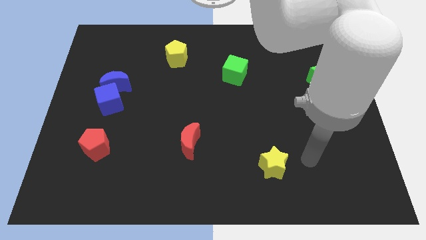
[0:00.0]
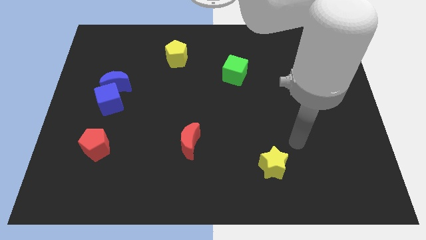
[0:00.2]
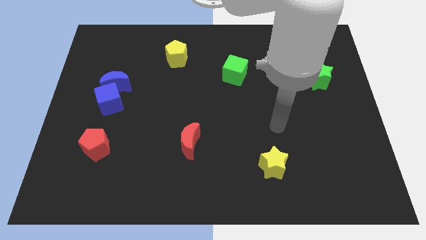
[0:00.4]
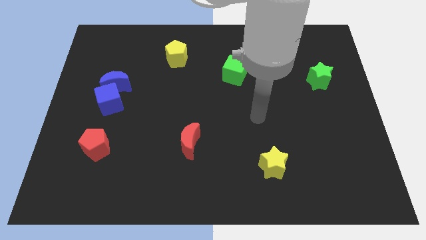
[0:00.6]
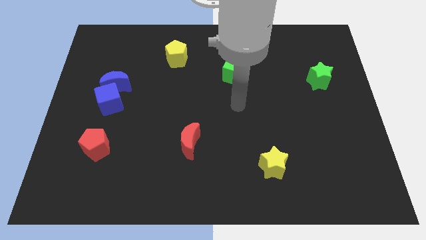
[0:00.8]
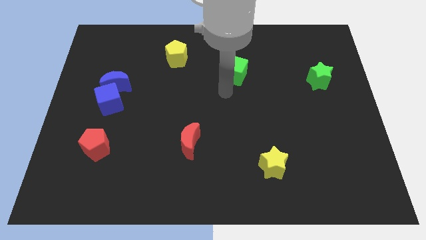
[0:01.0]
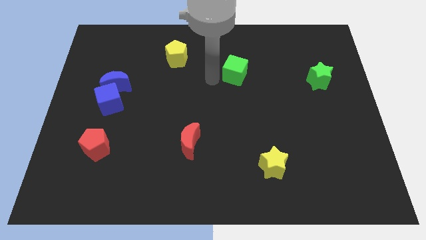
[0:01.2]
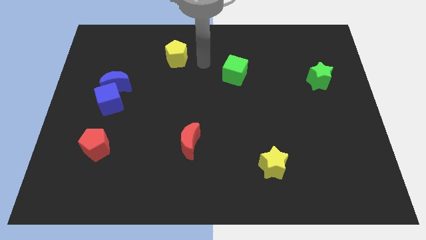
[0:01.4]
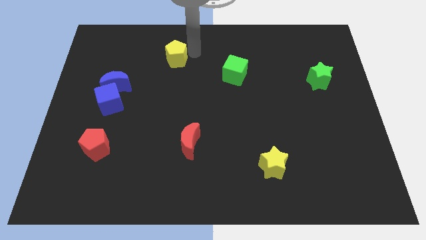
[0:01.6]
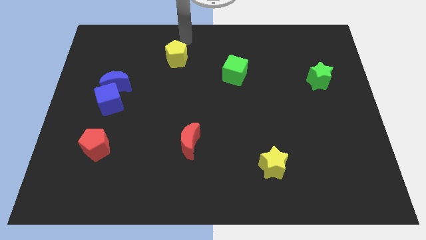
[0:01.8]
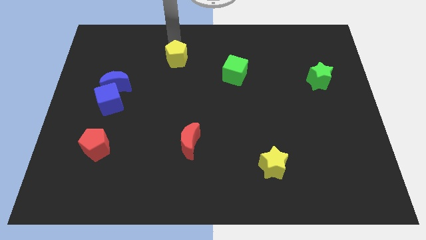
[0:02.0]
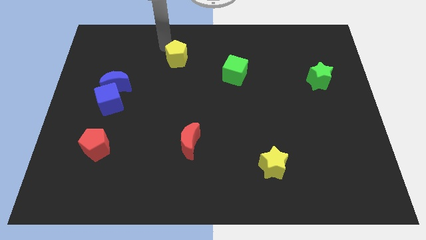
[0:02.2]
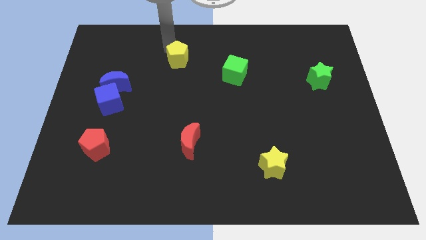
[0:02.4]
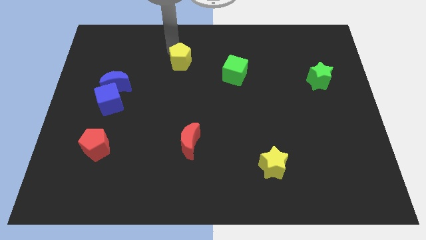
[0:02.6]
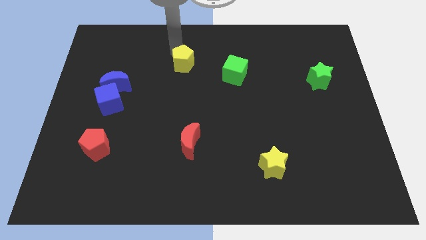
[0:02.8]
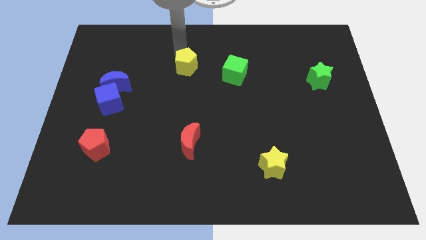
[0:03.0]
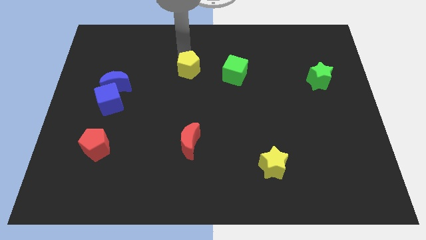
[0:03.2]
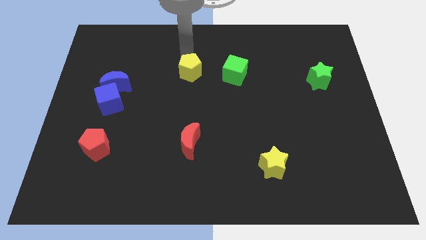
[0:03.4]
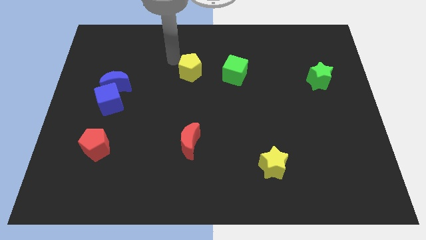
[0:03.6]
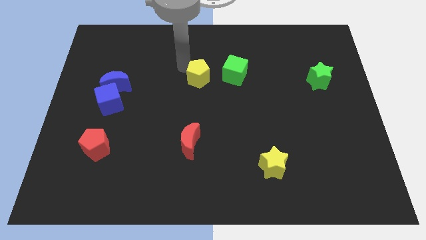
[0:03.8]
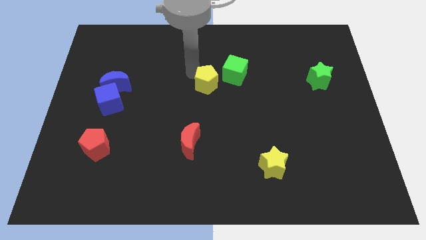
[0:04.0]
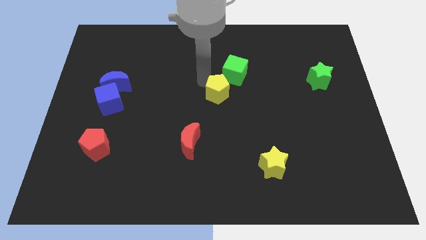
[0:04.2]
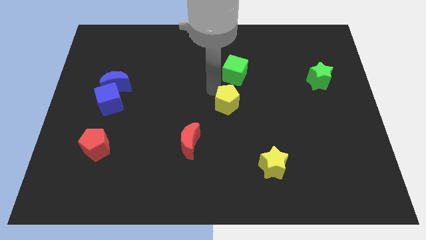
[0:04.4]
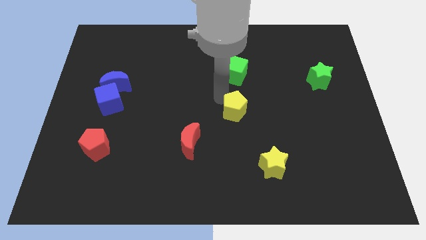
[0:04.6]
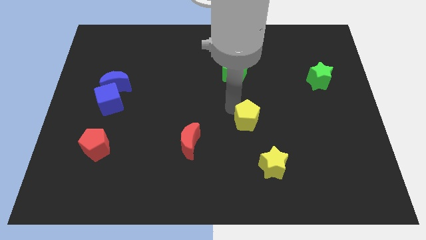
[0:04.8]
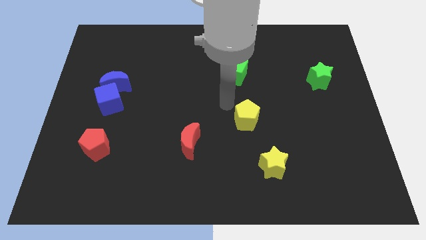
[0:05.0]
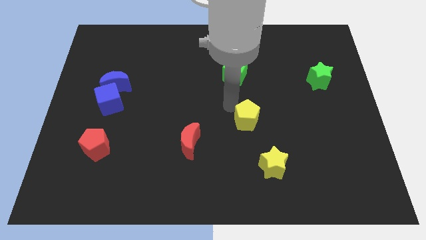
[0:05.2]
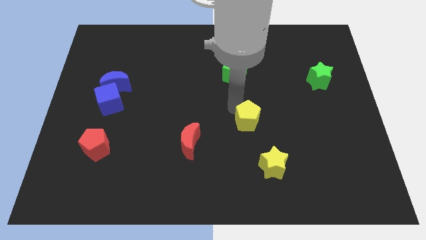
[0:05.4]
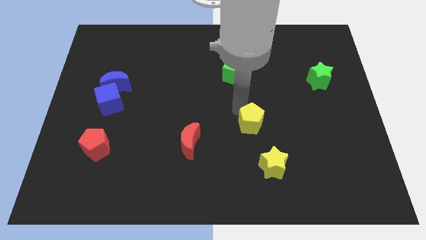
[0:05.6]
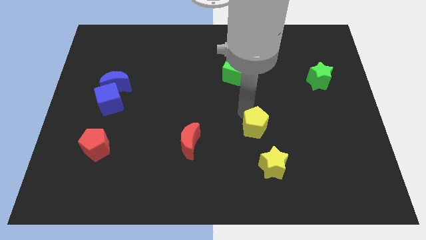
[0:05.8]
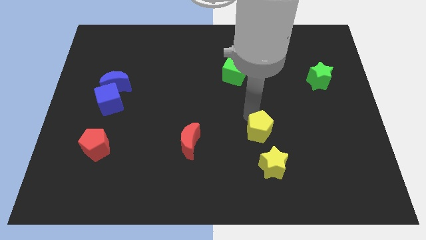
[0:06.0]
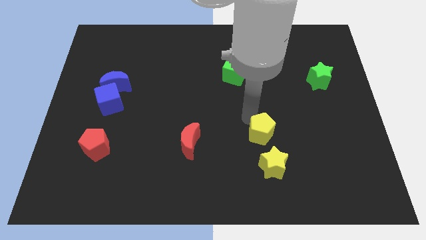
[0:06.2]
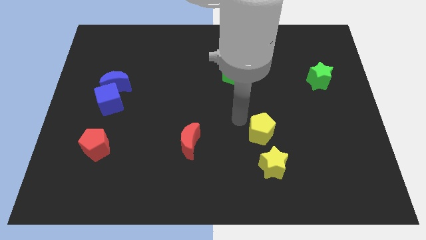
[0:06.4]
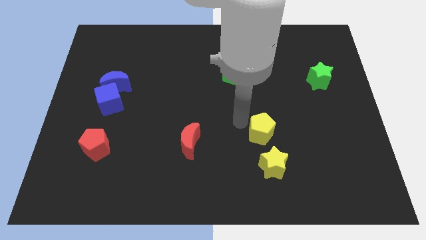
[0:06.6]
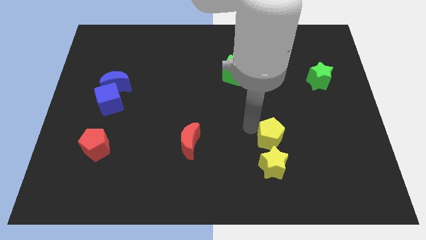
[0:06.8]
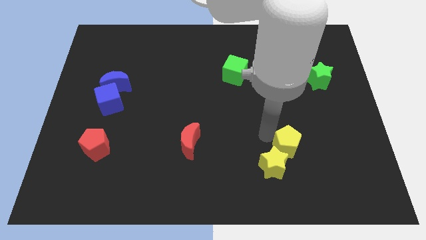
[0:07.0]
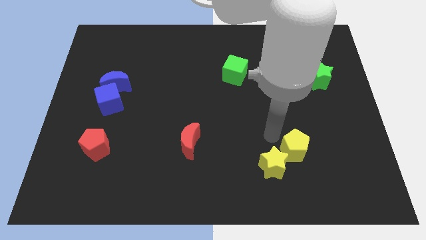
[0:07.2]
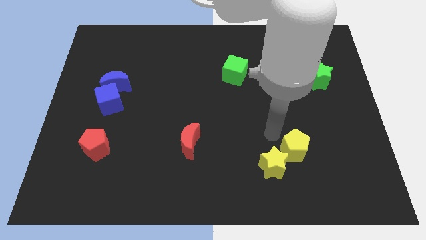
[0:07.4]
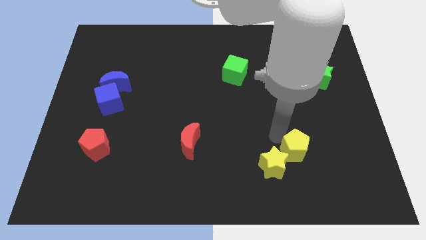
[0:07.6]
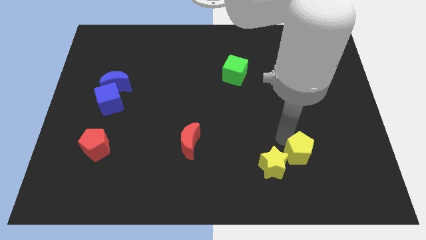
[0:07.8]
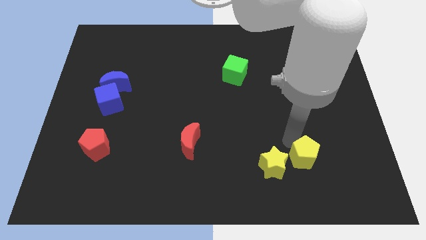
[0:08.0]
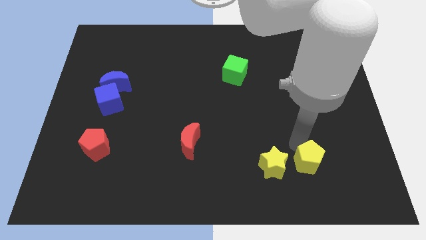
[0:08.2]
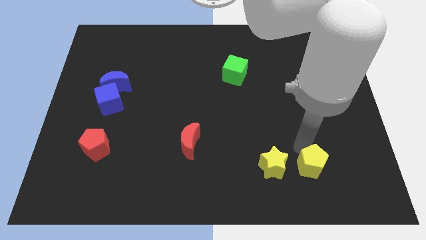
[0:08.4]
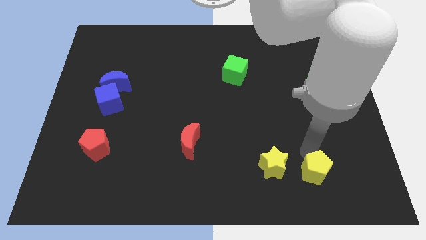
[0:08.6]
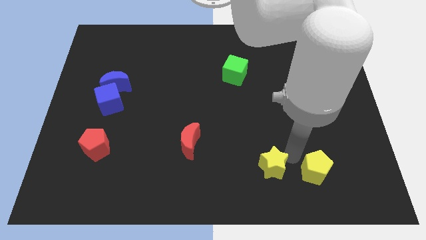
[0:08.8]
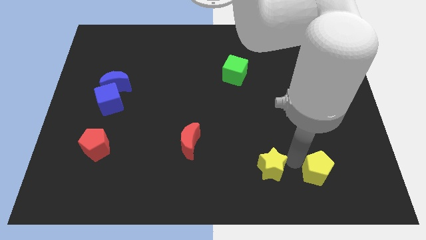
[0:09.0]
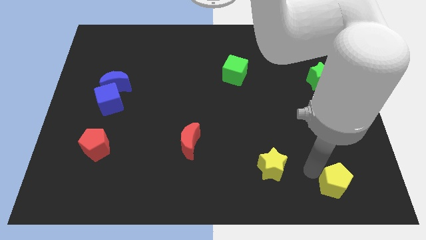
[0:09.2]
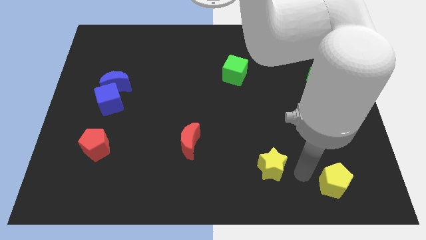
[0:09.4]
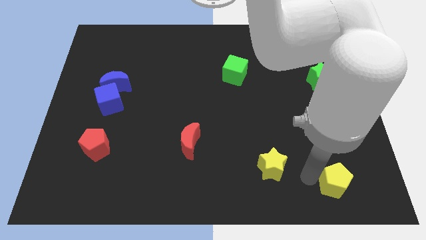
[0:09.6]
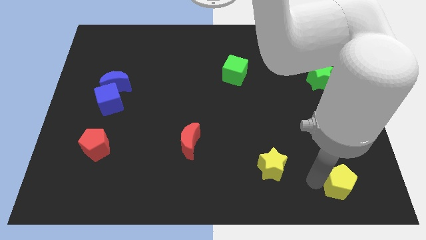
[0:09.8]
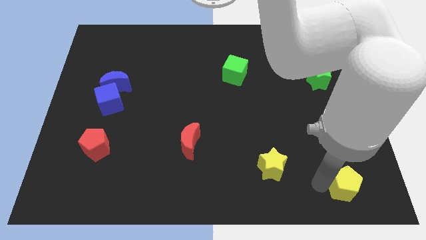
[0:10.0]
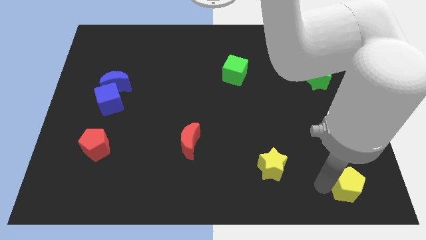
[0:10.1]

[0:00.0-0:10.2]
slide the yellow pentagon to the bottom right corner

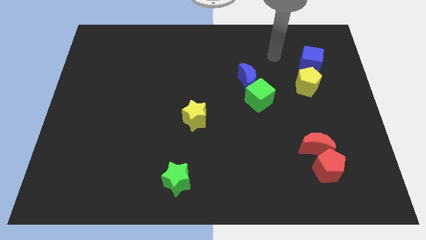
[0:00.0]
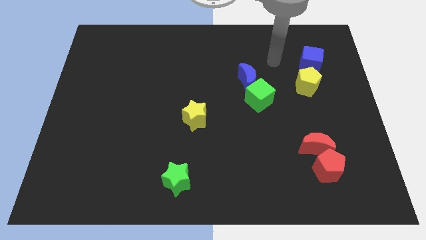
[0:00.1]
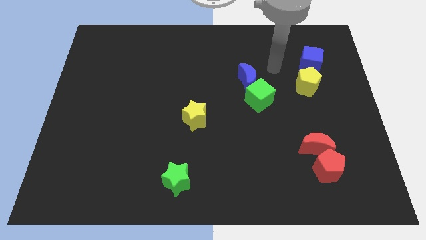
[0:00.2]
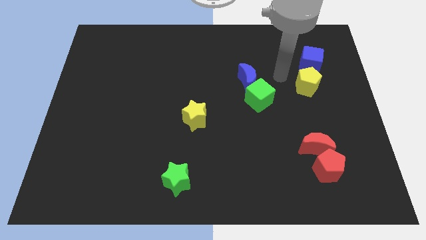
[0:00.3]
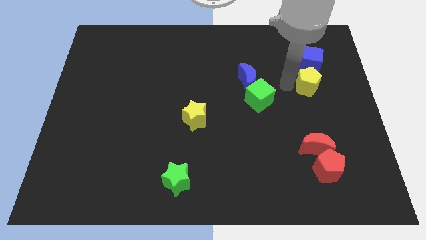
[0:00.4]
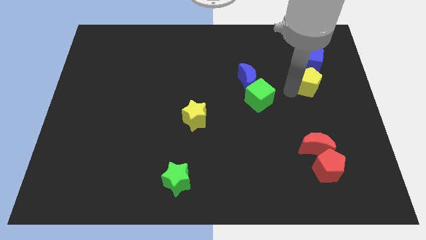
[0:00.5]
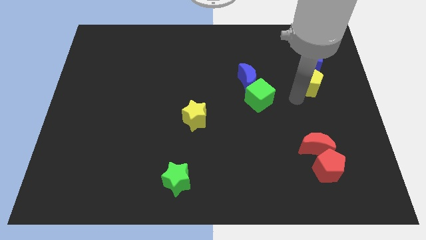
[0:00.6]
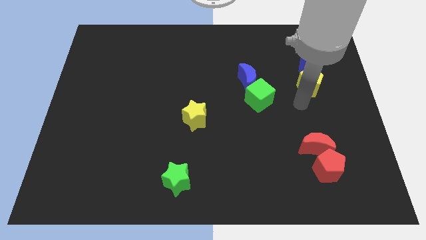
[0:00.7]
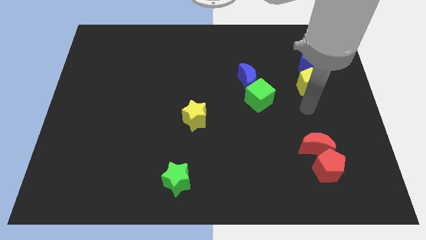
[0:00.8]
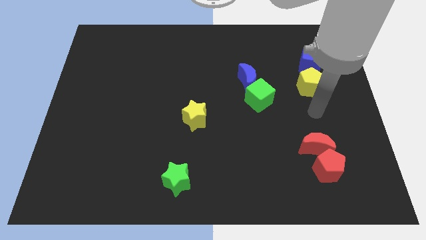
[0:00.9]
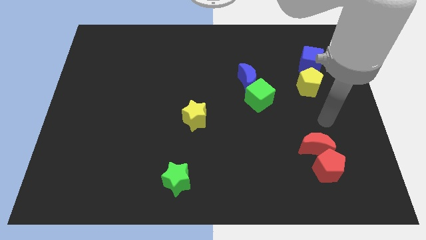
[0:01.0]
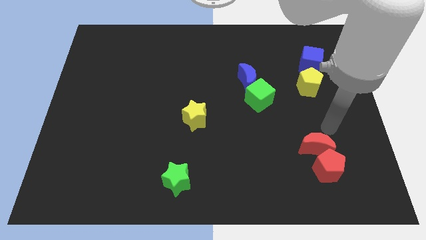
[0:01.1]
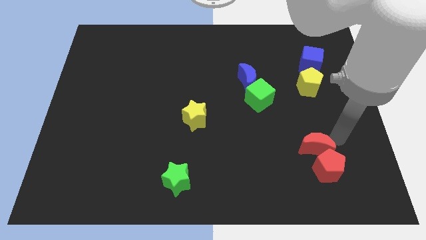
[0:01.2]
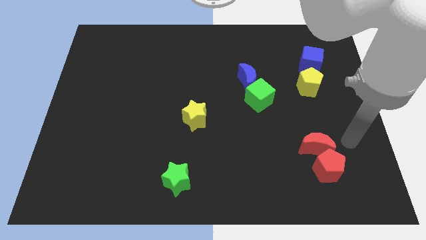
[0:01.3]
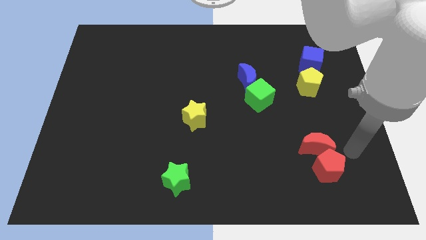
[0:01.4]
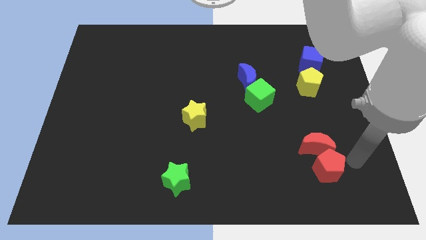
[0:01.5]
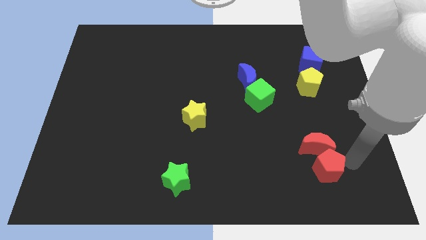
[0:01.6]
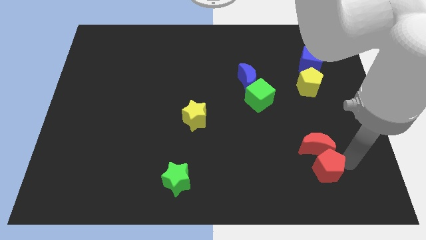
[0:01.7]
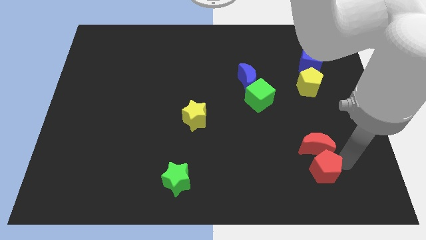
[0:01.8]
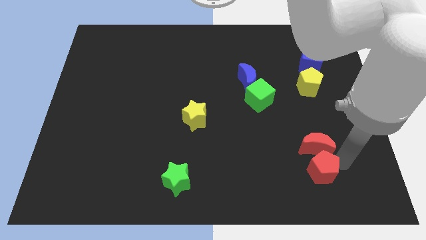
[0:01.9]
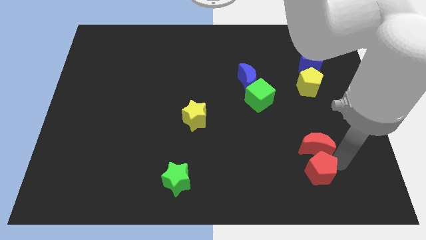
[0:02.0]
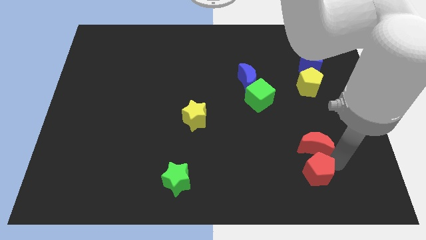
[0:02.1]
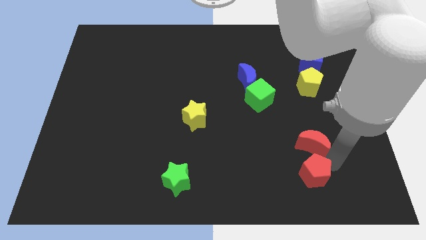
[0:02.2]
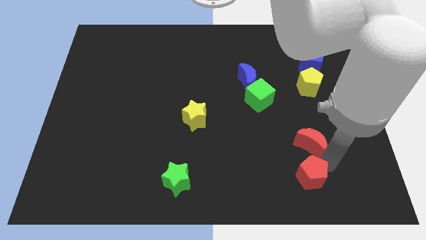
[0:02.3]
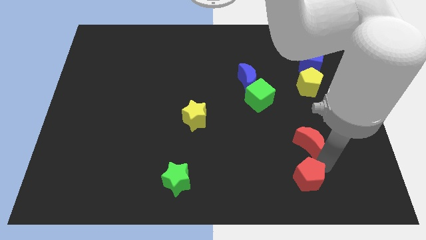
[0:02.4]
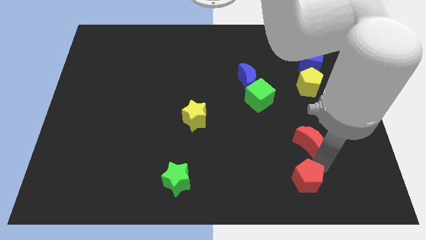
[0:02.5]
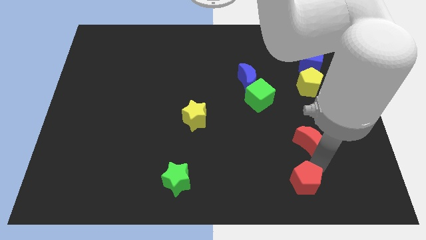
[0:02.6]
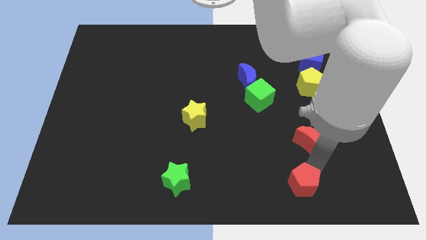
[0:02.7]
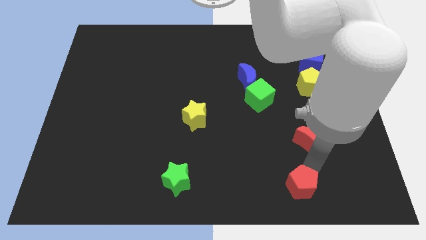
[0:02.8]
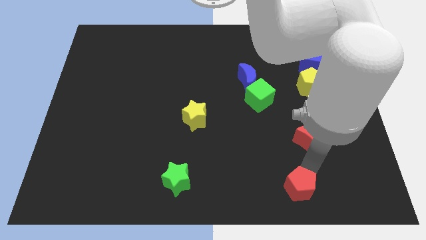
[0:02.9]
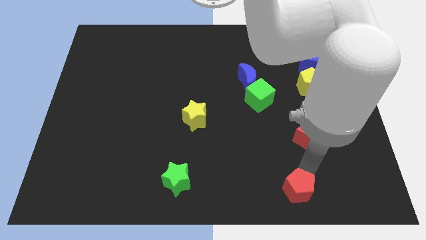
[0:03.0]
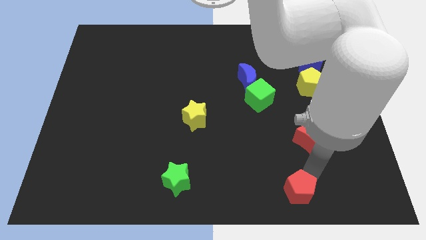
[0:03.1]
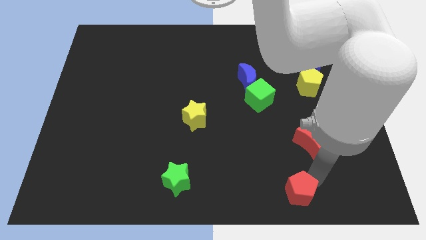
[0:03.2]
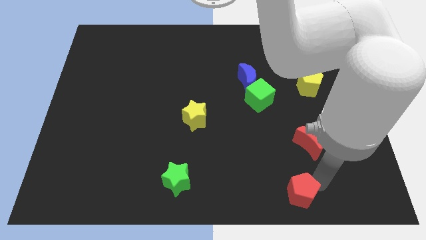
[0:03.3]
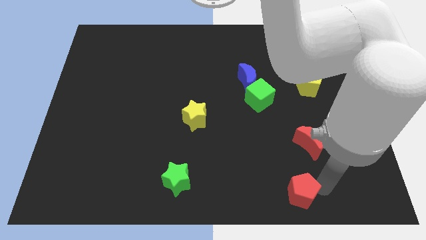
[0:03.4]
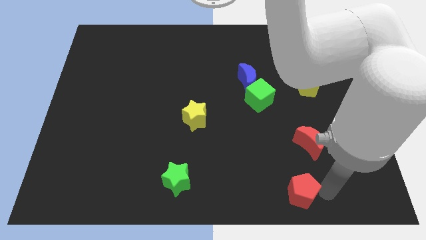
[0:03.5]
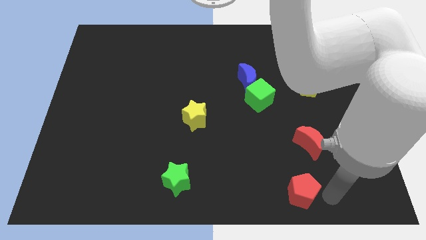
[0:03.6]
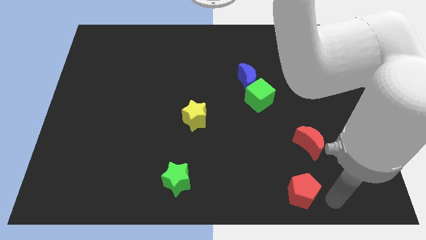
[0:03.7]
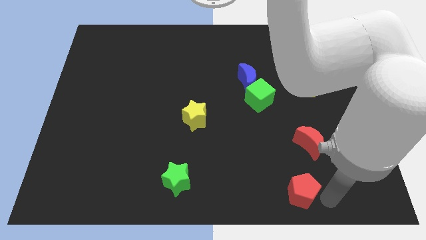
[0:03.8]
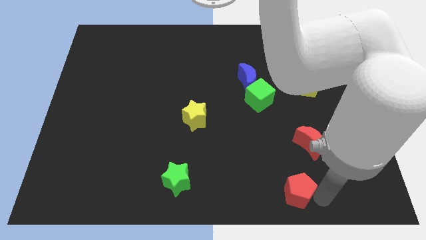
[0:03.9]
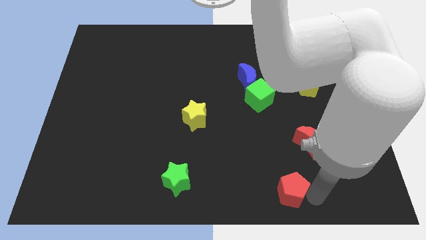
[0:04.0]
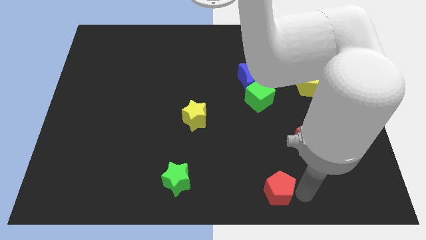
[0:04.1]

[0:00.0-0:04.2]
put the red pentagon to the bottom
